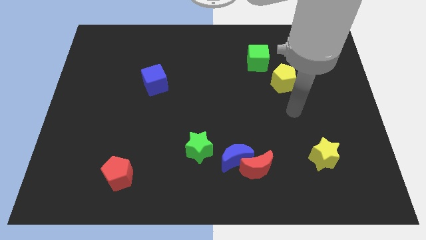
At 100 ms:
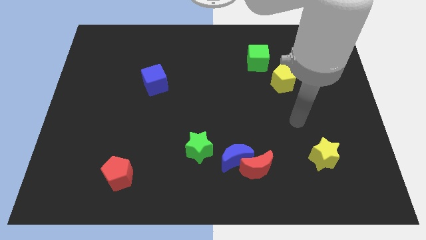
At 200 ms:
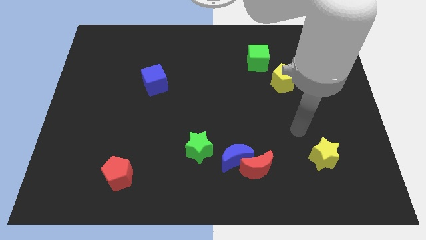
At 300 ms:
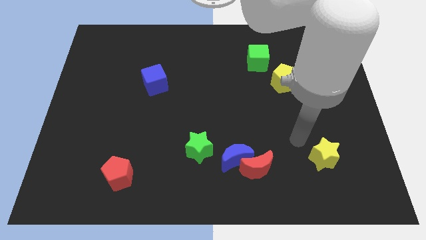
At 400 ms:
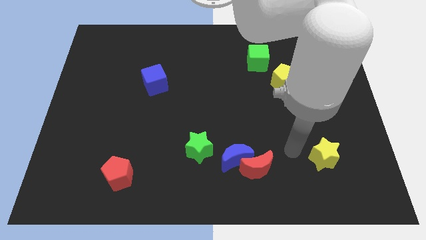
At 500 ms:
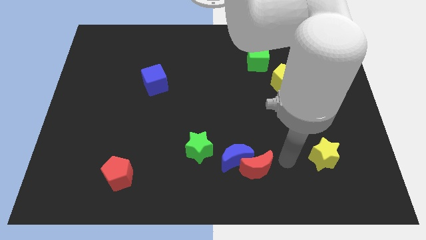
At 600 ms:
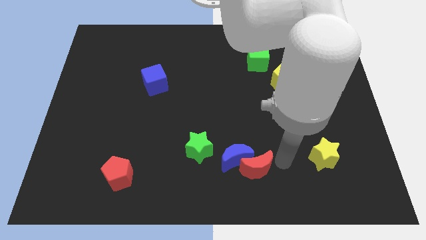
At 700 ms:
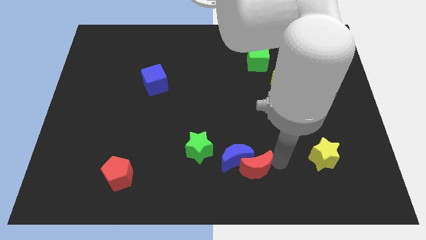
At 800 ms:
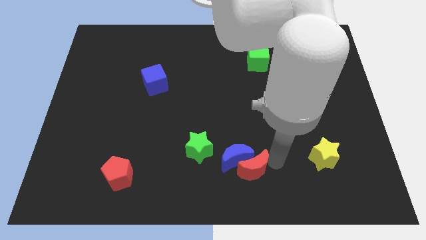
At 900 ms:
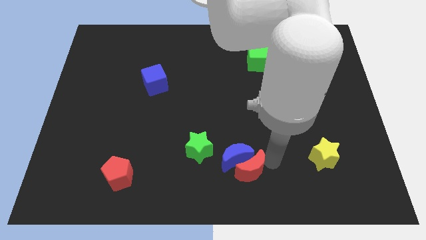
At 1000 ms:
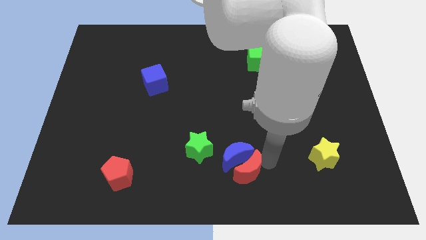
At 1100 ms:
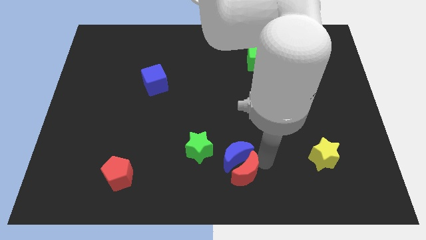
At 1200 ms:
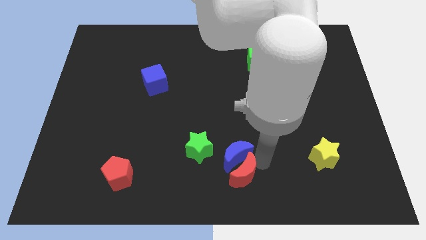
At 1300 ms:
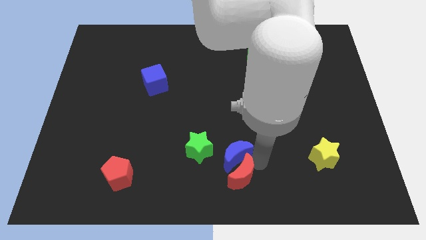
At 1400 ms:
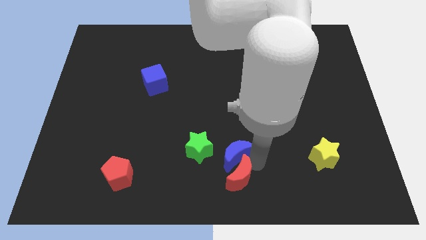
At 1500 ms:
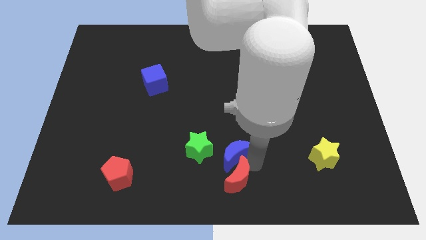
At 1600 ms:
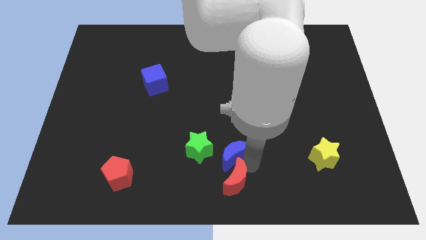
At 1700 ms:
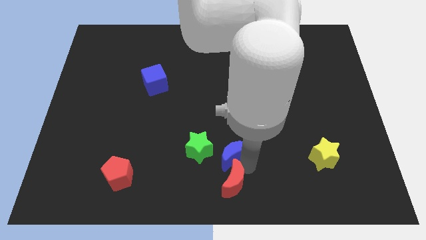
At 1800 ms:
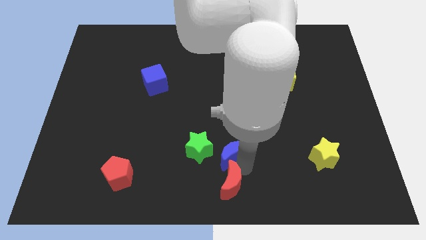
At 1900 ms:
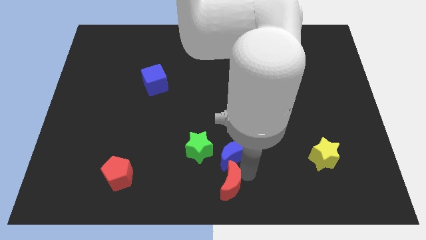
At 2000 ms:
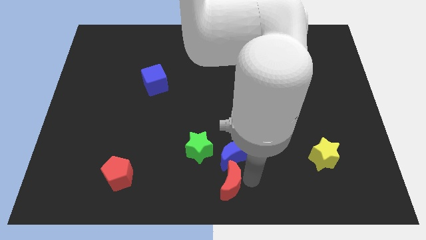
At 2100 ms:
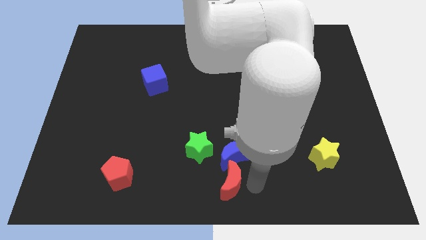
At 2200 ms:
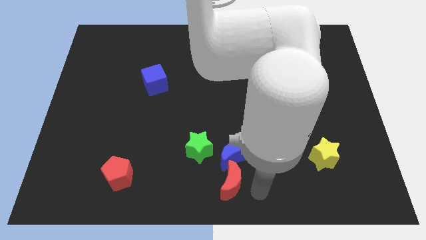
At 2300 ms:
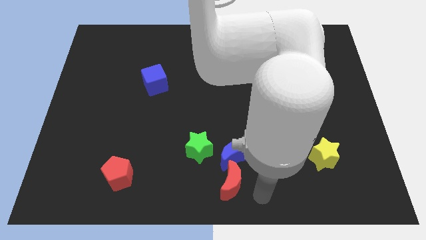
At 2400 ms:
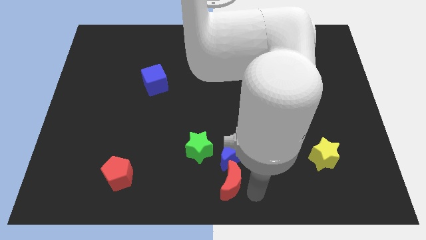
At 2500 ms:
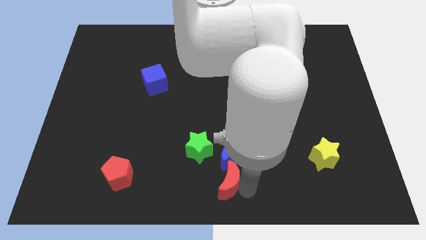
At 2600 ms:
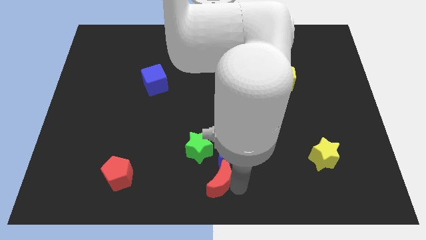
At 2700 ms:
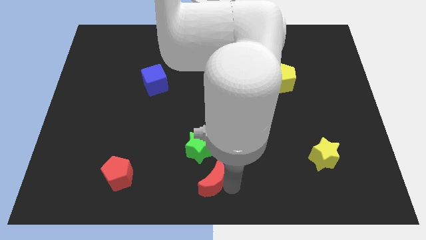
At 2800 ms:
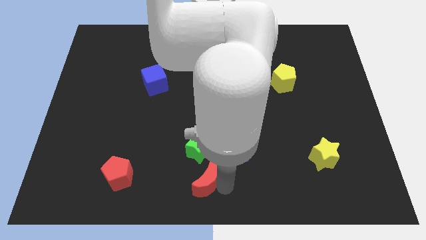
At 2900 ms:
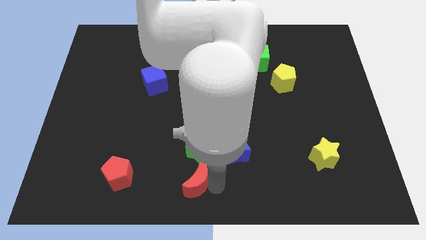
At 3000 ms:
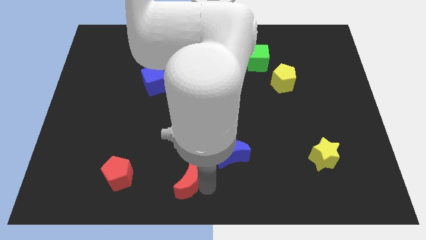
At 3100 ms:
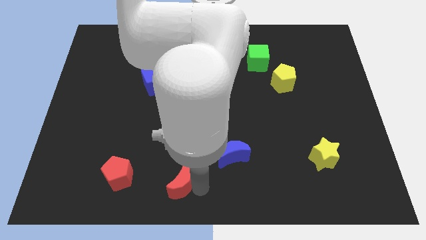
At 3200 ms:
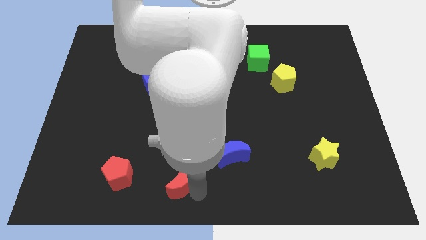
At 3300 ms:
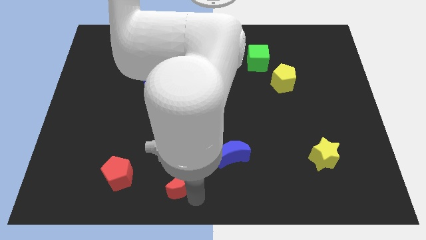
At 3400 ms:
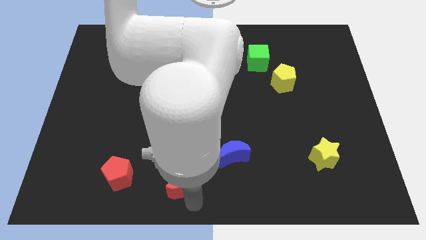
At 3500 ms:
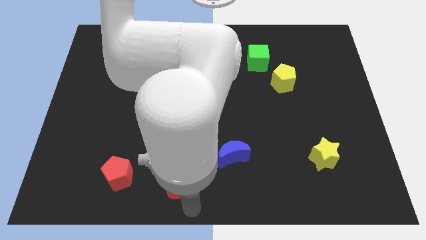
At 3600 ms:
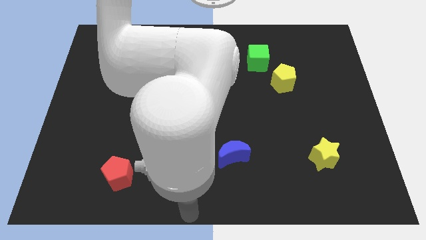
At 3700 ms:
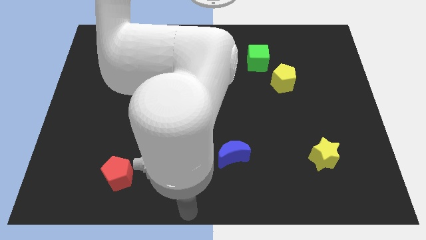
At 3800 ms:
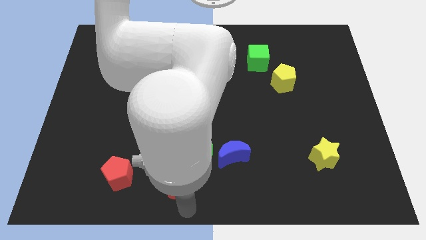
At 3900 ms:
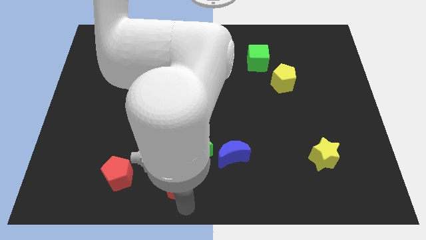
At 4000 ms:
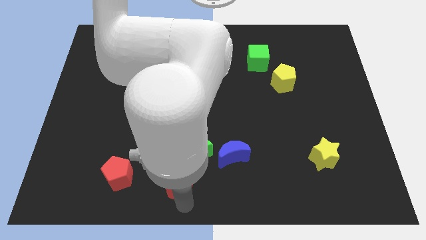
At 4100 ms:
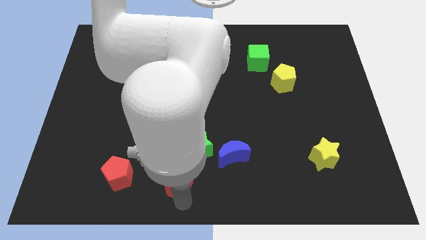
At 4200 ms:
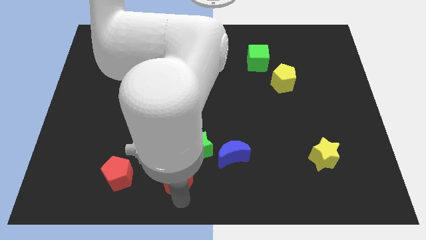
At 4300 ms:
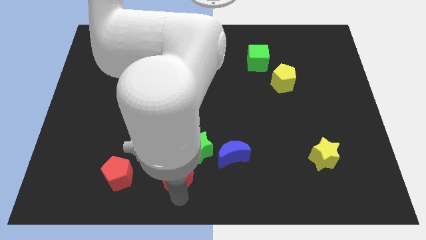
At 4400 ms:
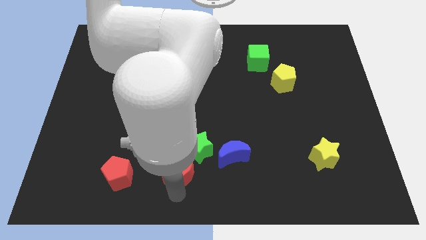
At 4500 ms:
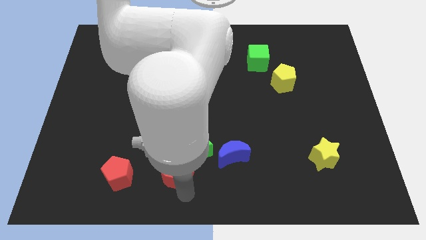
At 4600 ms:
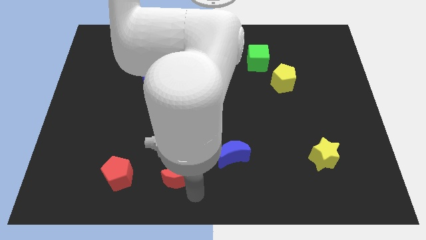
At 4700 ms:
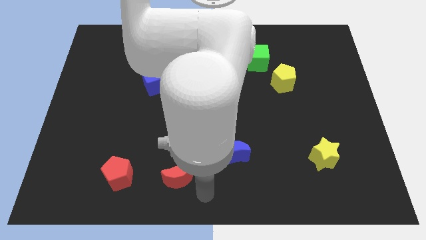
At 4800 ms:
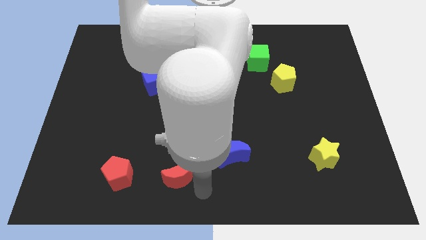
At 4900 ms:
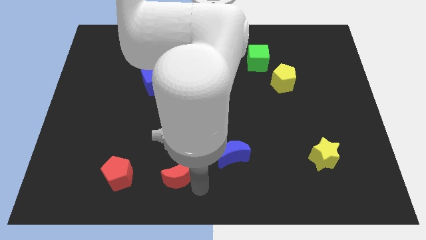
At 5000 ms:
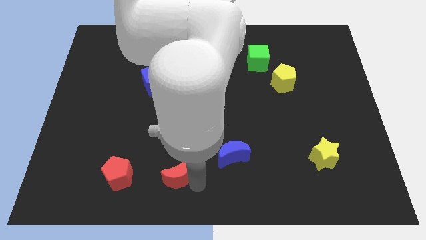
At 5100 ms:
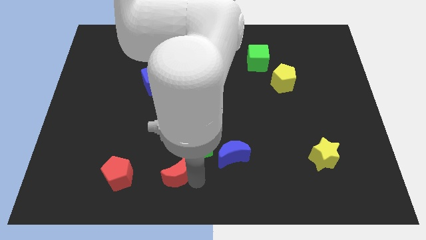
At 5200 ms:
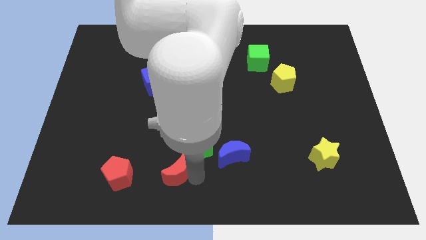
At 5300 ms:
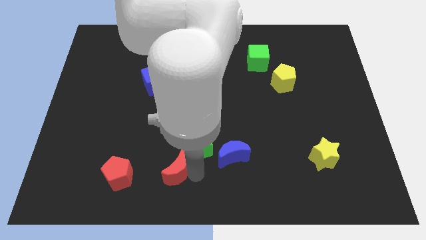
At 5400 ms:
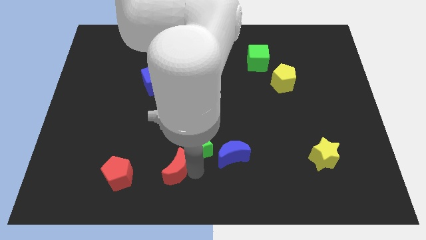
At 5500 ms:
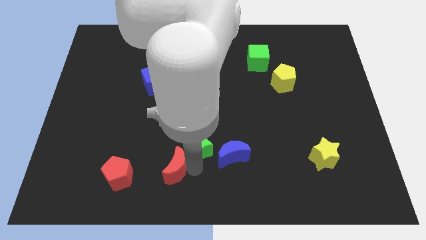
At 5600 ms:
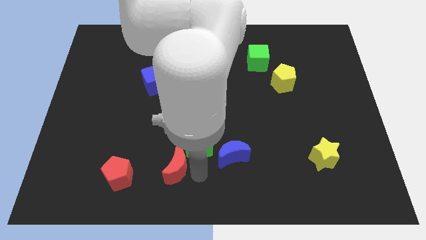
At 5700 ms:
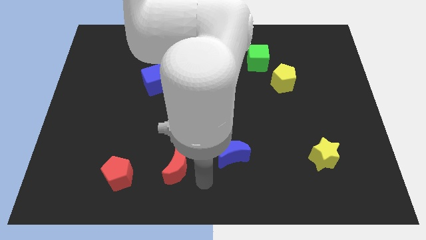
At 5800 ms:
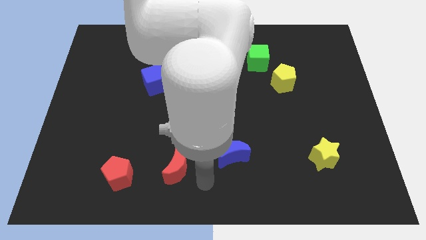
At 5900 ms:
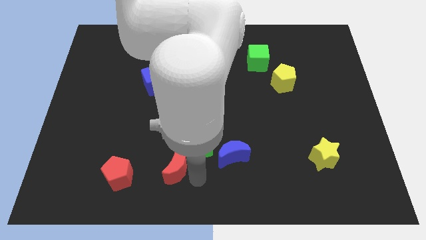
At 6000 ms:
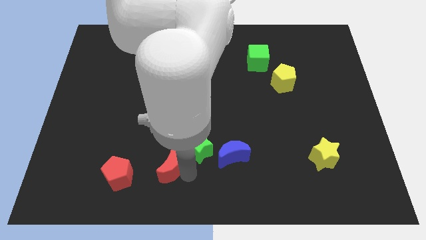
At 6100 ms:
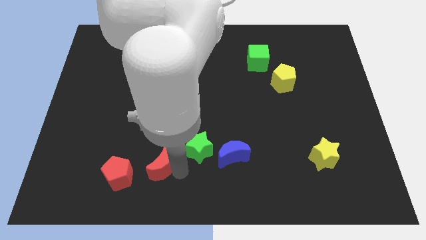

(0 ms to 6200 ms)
push the red moon to the top right side of the red pentagon

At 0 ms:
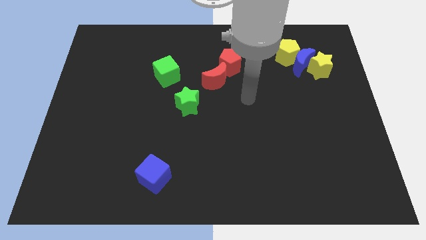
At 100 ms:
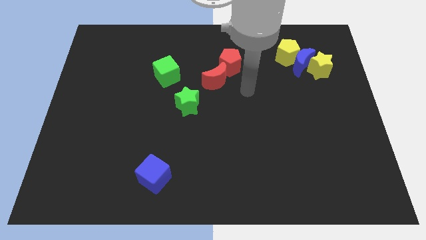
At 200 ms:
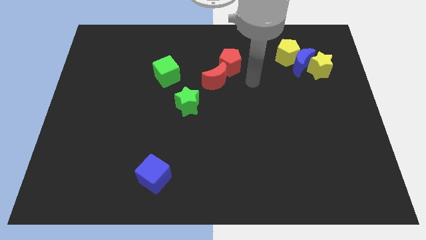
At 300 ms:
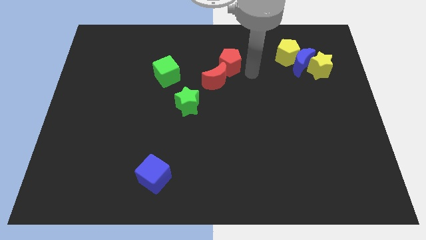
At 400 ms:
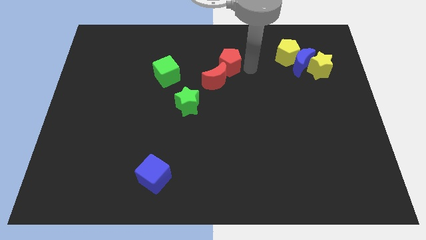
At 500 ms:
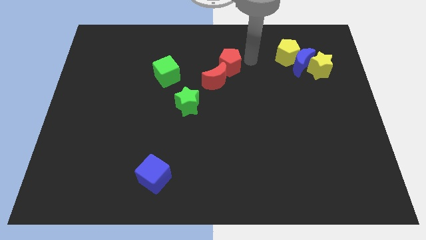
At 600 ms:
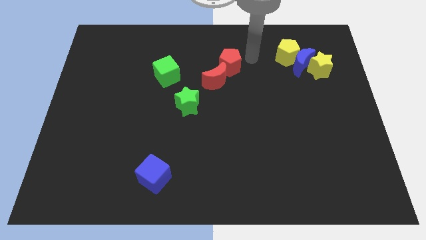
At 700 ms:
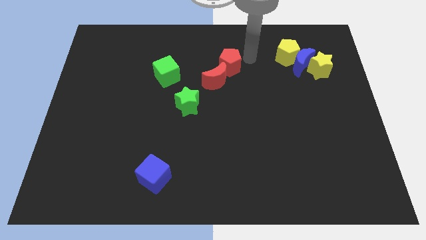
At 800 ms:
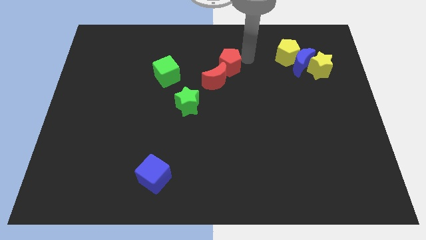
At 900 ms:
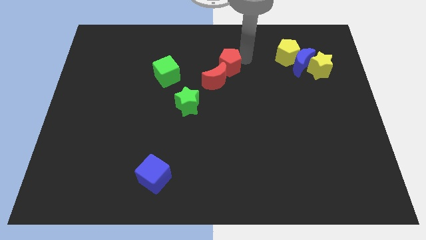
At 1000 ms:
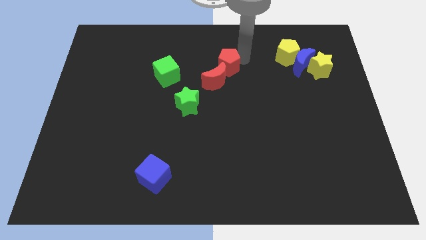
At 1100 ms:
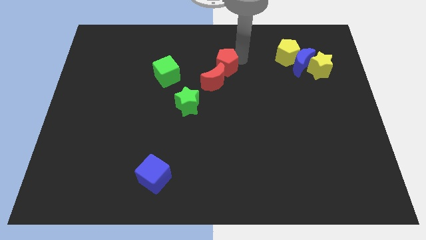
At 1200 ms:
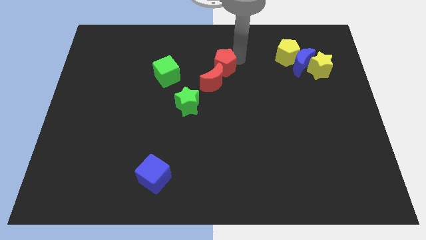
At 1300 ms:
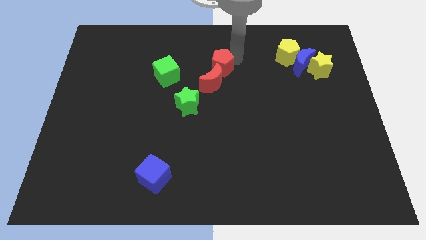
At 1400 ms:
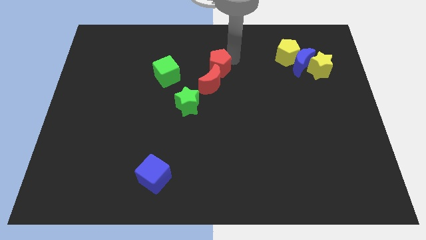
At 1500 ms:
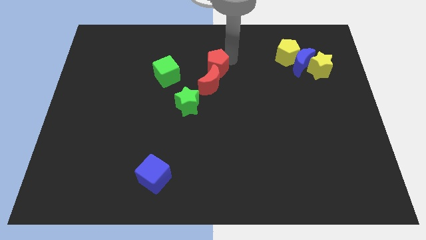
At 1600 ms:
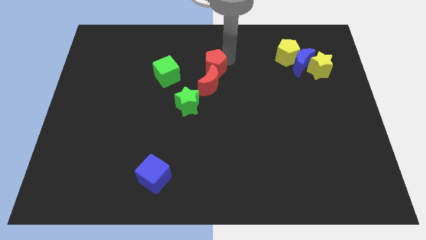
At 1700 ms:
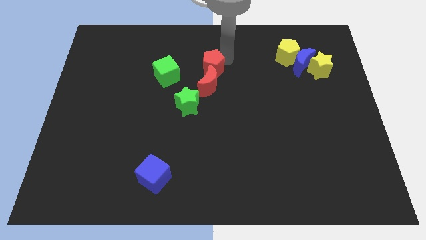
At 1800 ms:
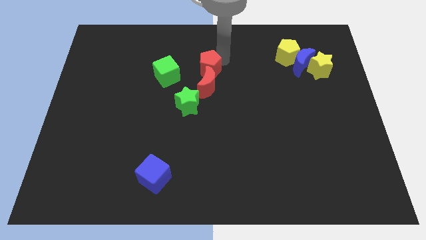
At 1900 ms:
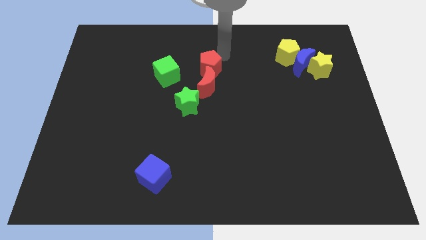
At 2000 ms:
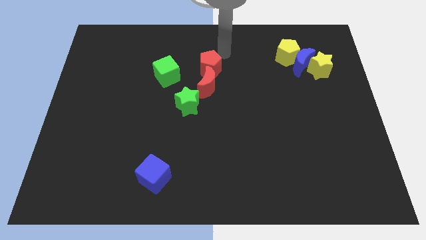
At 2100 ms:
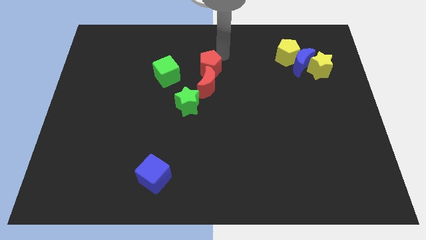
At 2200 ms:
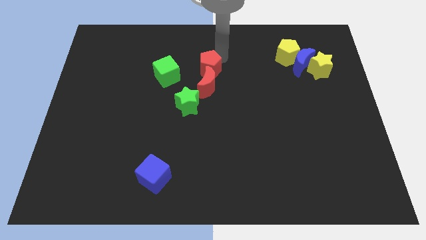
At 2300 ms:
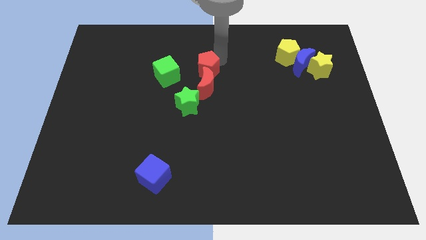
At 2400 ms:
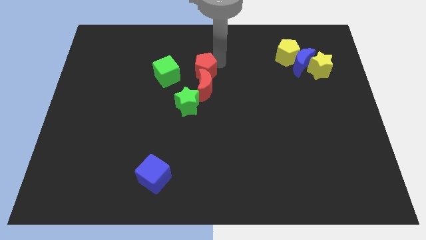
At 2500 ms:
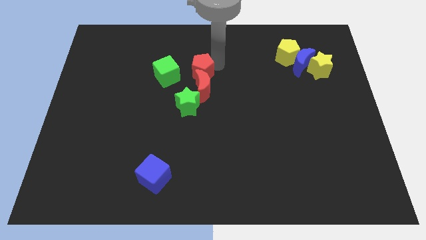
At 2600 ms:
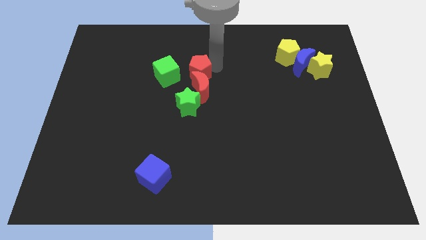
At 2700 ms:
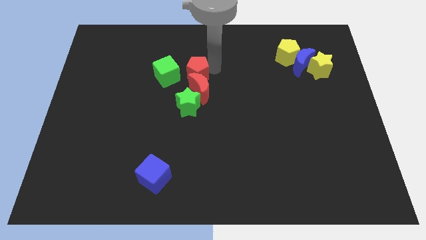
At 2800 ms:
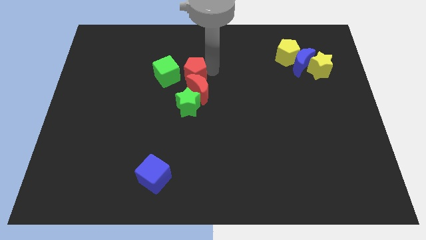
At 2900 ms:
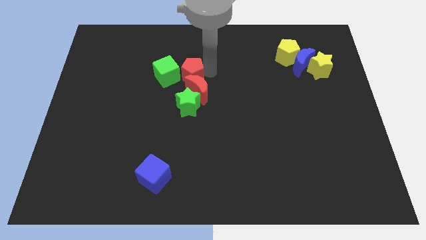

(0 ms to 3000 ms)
push the red pentagon to the bottom right side of the green cube
